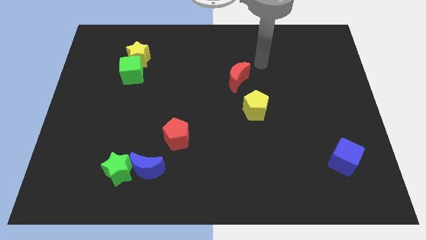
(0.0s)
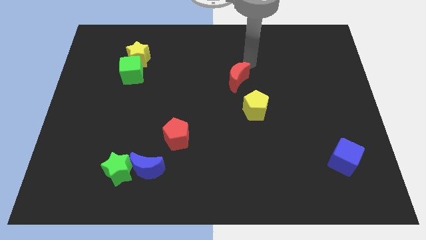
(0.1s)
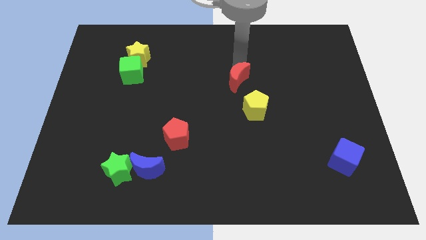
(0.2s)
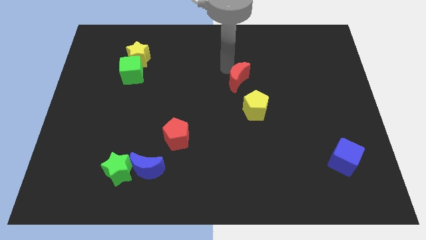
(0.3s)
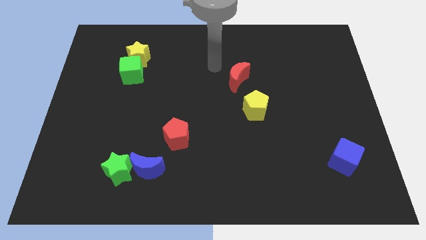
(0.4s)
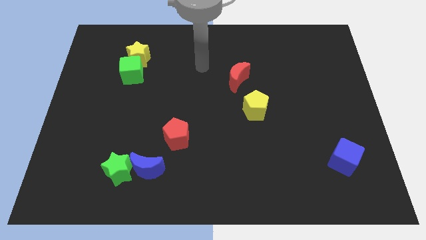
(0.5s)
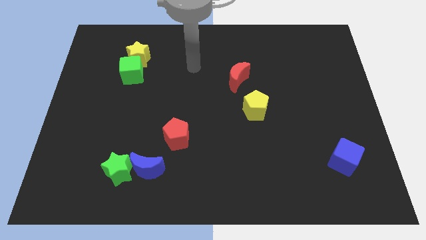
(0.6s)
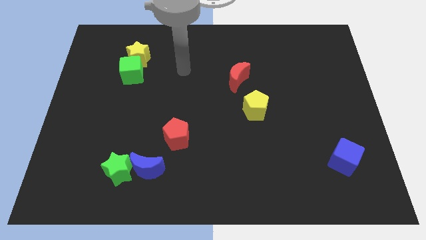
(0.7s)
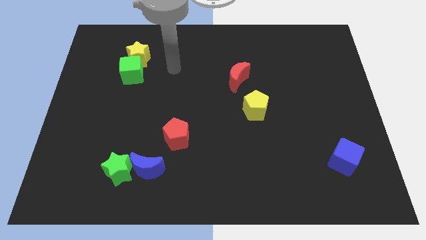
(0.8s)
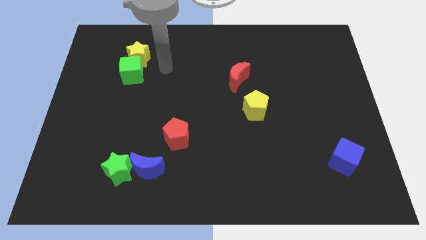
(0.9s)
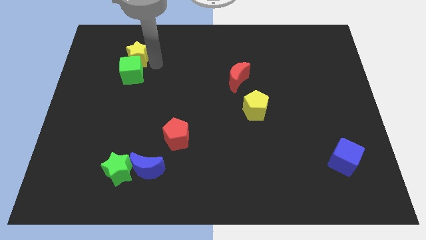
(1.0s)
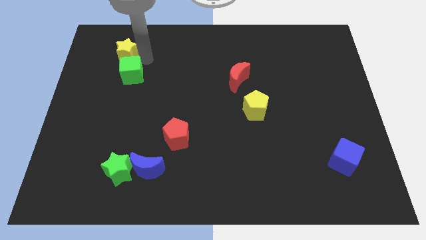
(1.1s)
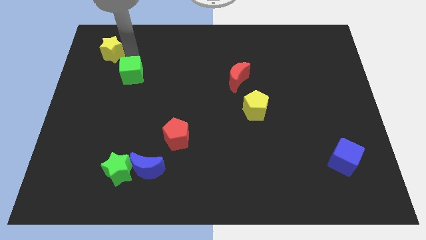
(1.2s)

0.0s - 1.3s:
pull the green cube apart from the yellow star

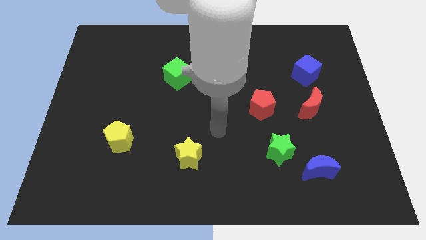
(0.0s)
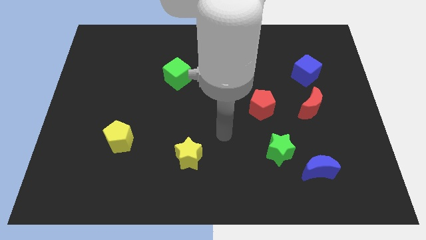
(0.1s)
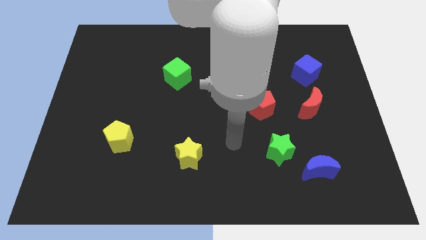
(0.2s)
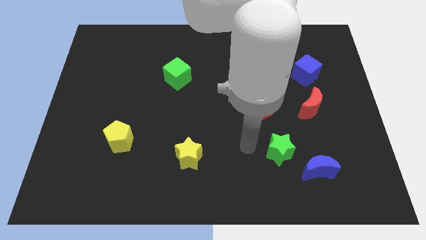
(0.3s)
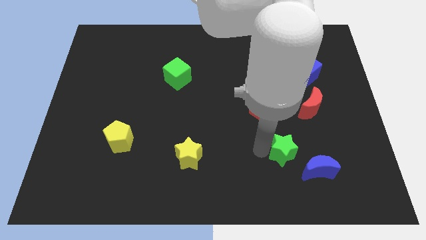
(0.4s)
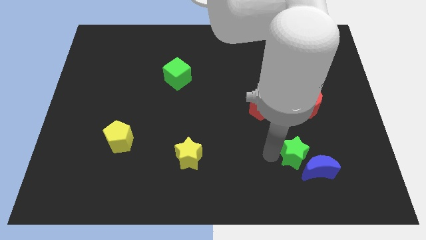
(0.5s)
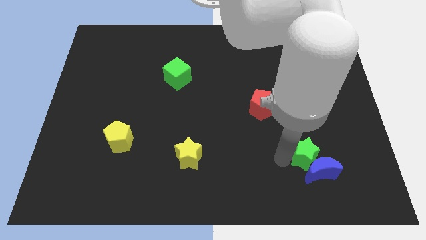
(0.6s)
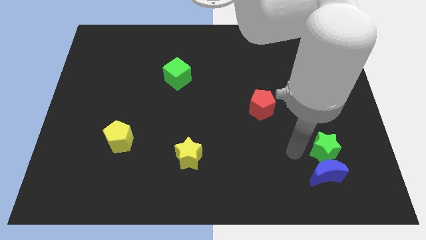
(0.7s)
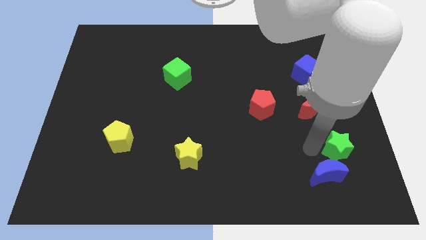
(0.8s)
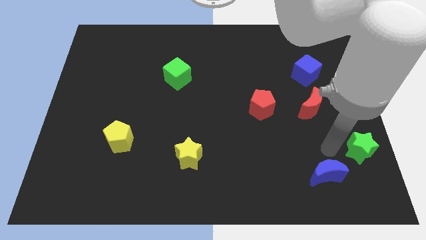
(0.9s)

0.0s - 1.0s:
pull the blue moon apart from the green star

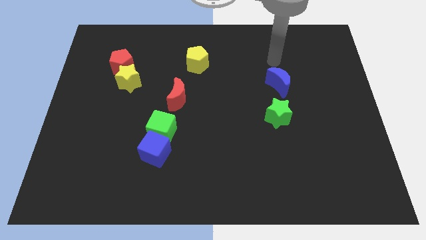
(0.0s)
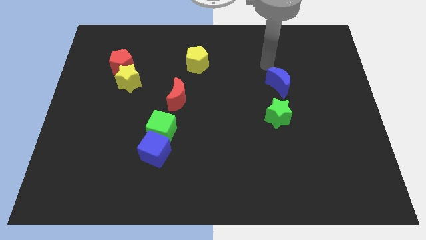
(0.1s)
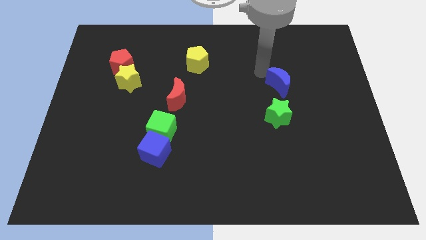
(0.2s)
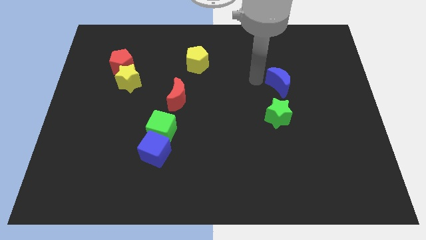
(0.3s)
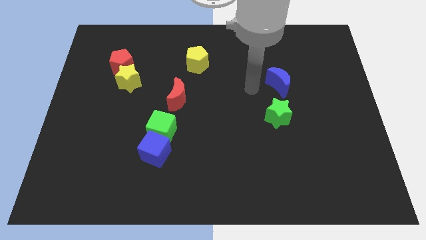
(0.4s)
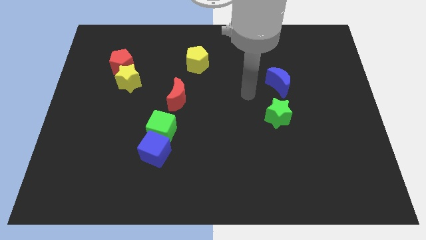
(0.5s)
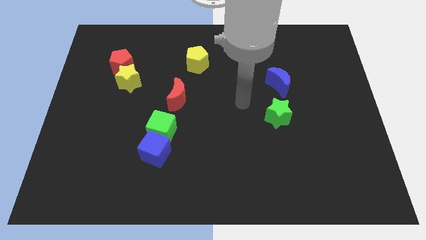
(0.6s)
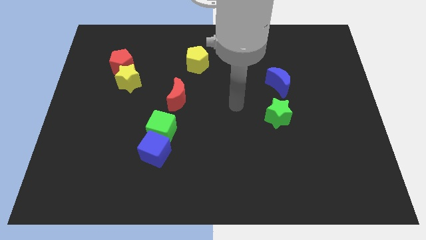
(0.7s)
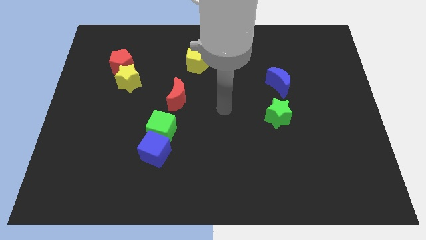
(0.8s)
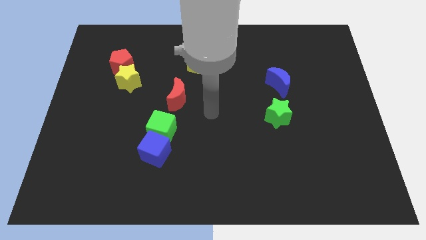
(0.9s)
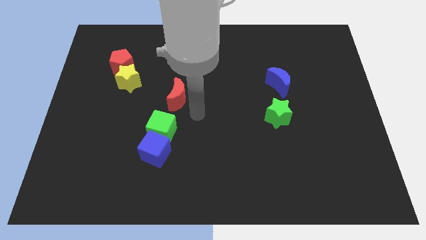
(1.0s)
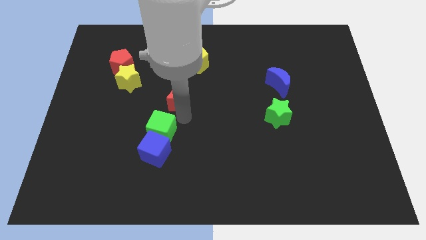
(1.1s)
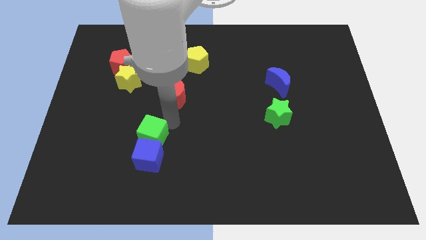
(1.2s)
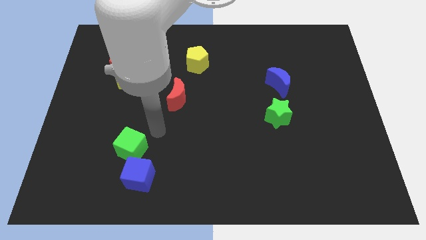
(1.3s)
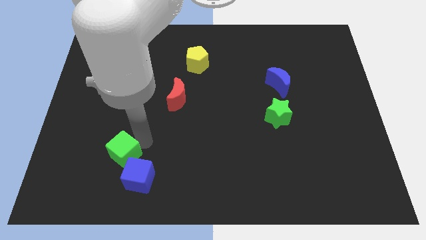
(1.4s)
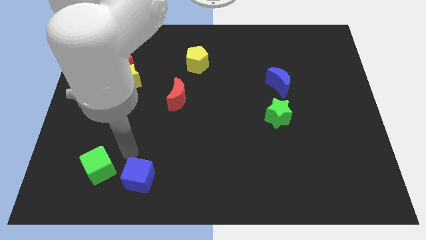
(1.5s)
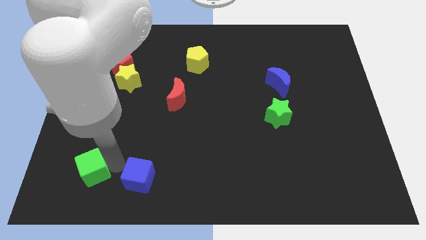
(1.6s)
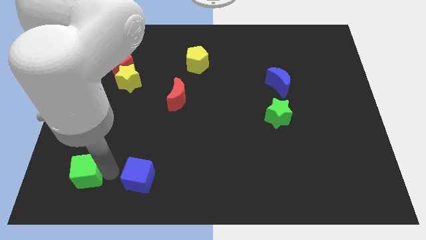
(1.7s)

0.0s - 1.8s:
separate the blue cube from the green cube

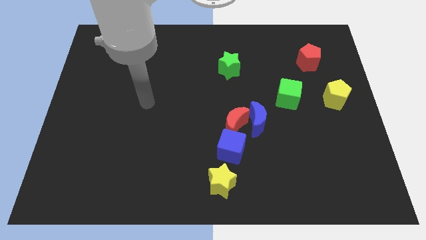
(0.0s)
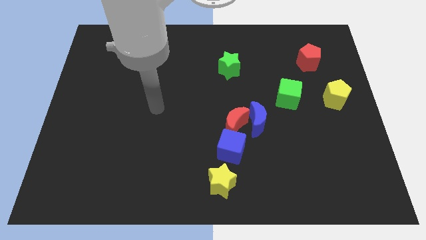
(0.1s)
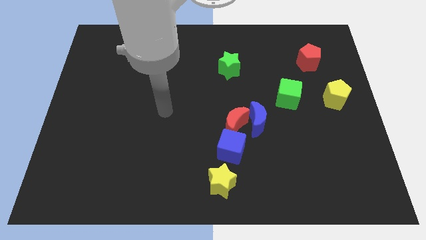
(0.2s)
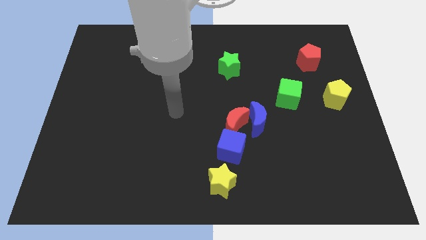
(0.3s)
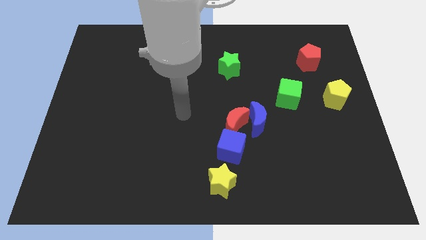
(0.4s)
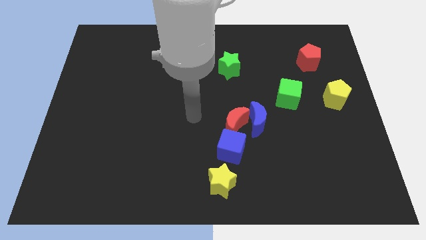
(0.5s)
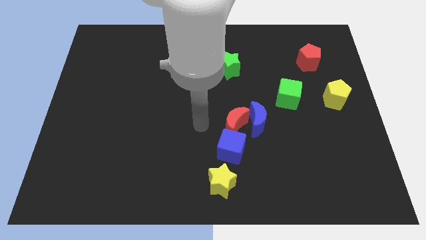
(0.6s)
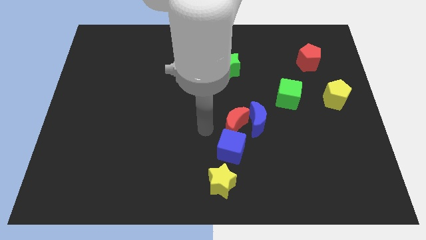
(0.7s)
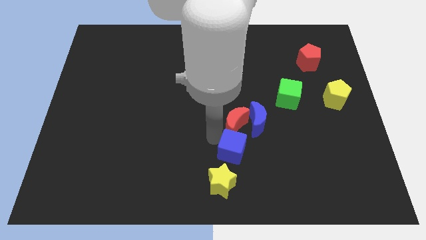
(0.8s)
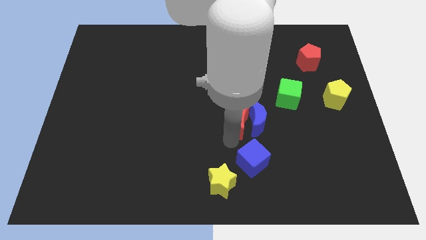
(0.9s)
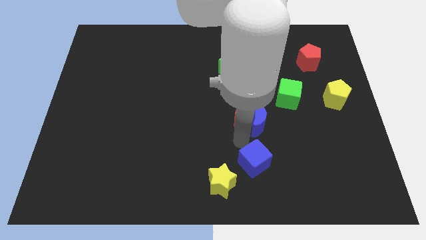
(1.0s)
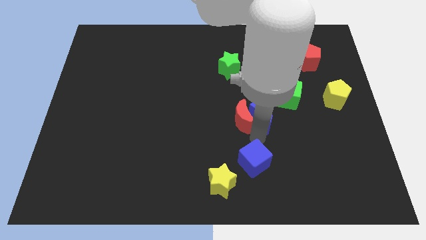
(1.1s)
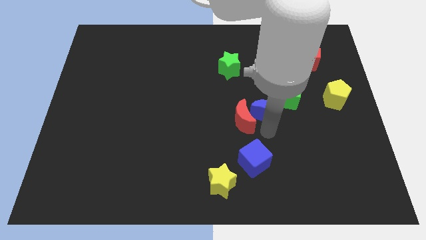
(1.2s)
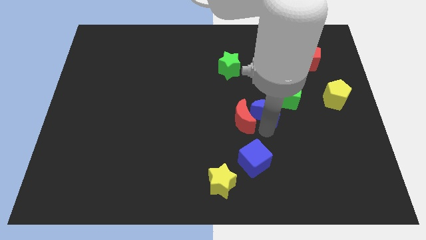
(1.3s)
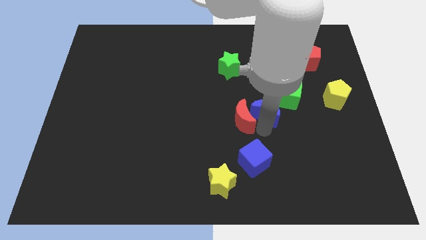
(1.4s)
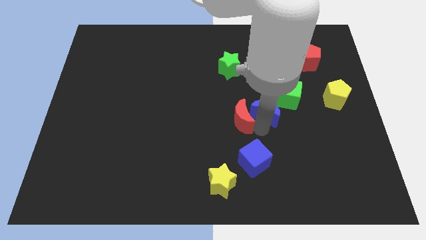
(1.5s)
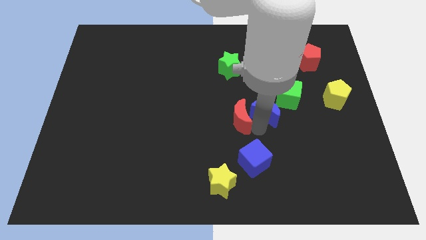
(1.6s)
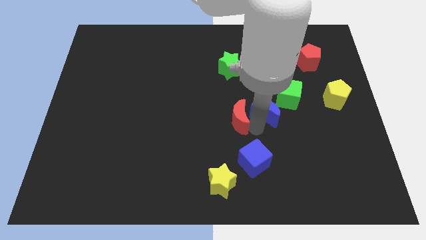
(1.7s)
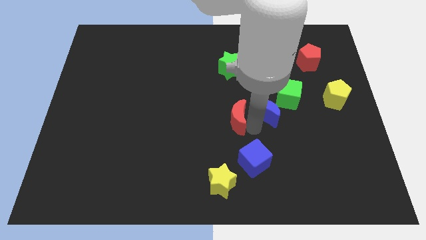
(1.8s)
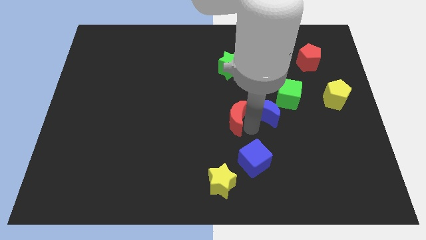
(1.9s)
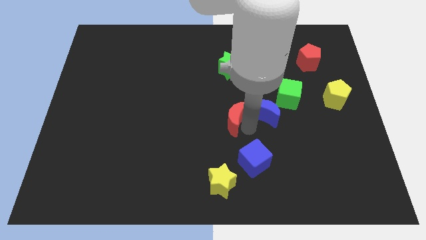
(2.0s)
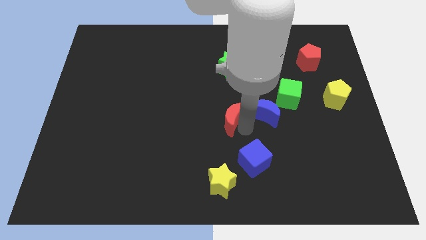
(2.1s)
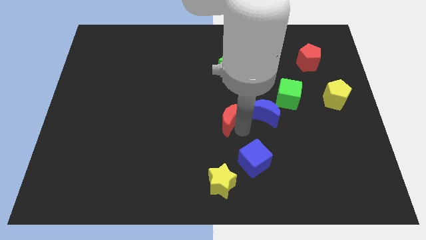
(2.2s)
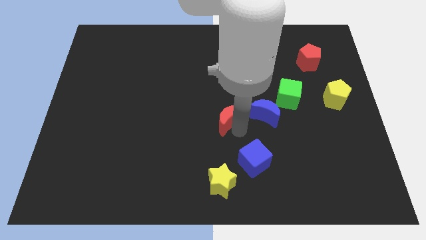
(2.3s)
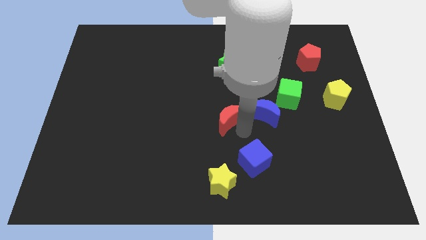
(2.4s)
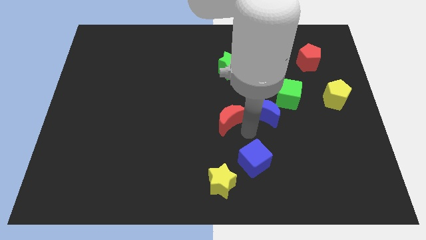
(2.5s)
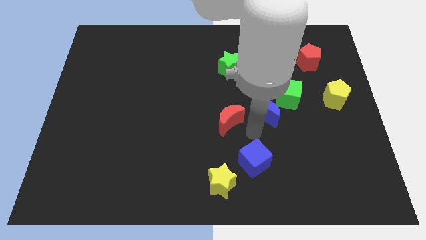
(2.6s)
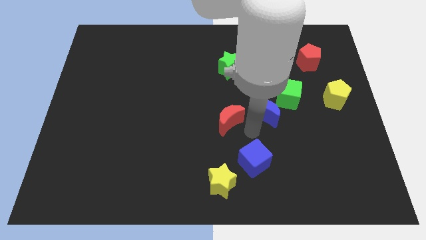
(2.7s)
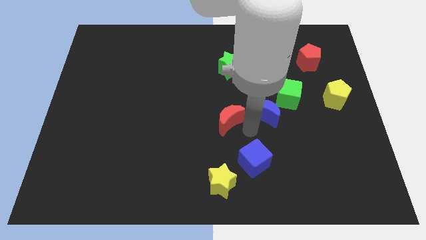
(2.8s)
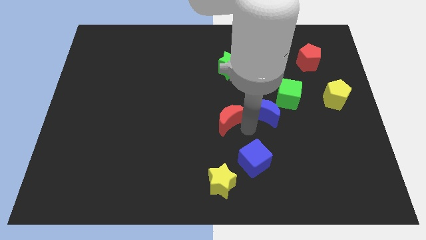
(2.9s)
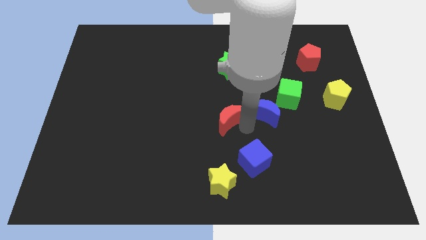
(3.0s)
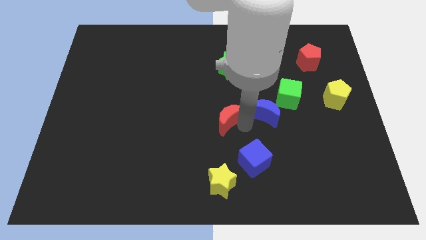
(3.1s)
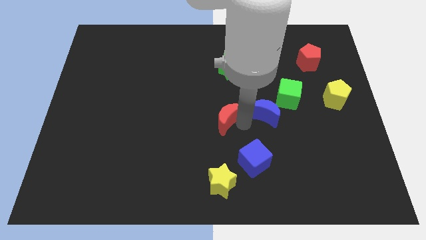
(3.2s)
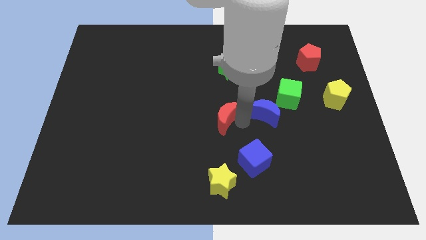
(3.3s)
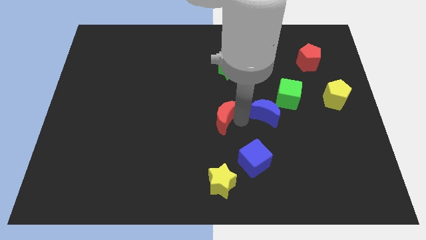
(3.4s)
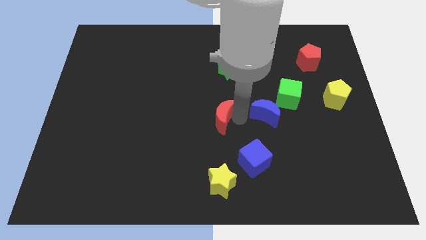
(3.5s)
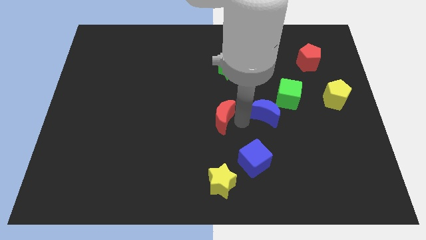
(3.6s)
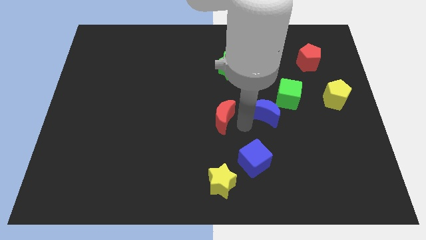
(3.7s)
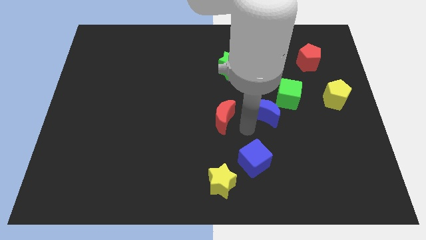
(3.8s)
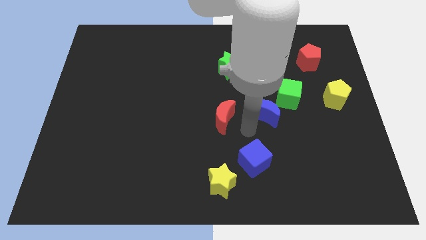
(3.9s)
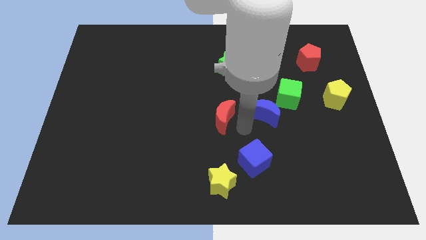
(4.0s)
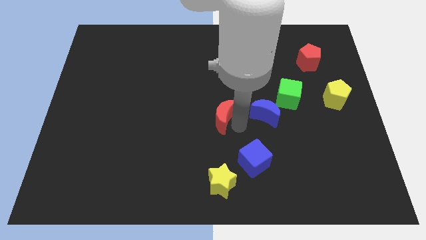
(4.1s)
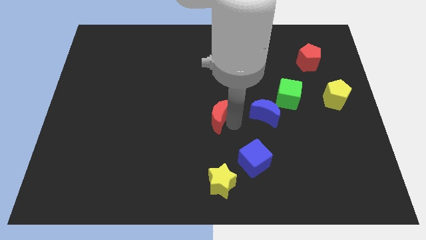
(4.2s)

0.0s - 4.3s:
move the red moon away from the blue moon and blue cube

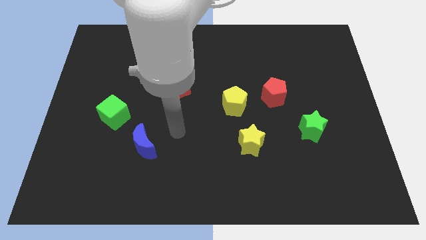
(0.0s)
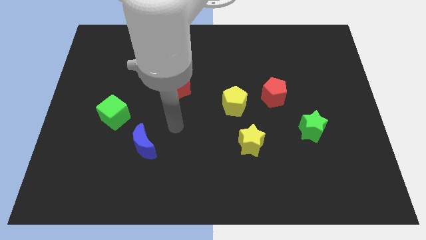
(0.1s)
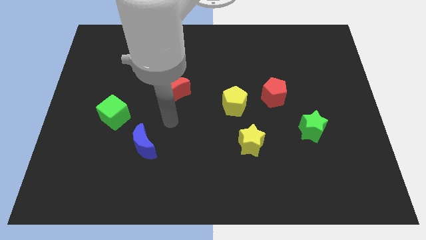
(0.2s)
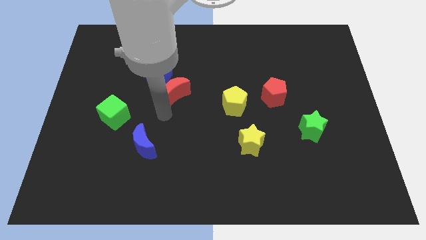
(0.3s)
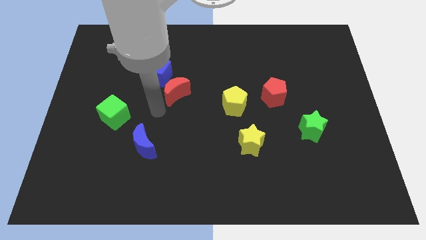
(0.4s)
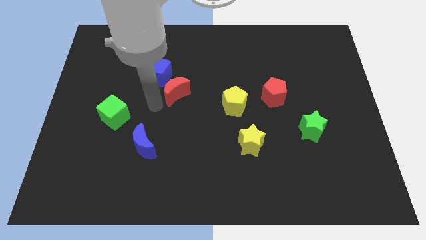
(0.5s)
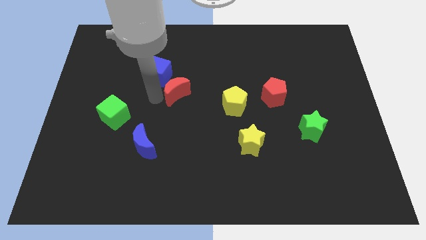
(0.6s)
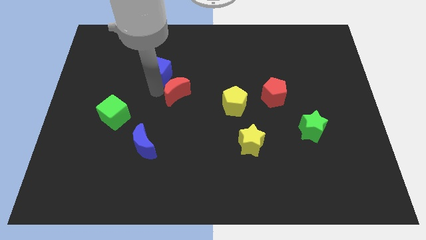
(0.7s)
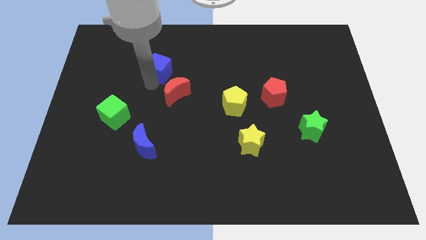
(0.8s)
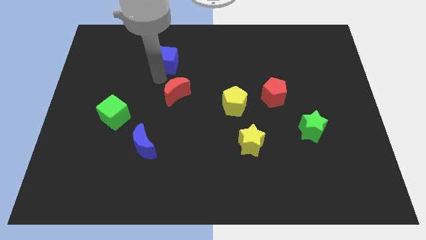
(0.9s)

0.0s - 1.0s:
move the red moon away from the blue cube
